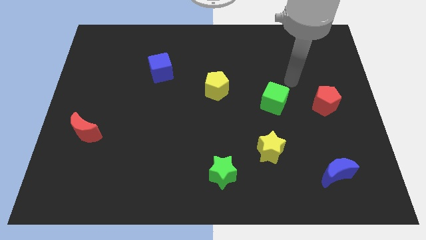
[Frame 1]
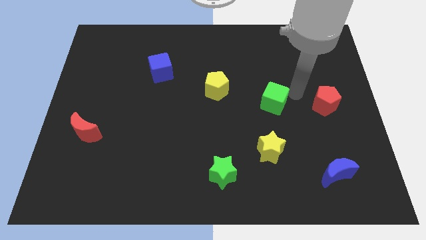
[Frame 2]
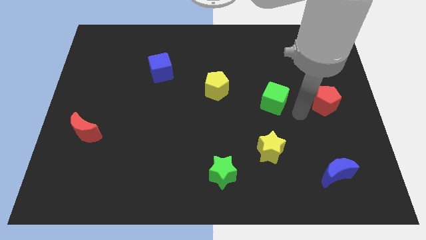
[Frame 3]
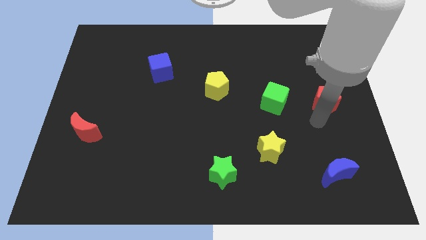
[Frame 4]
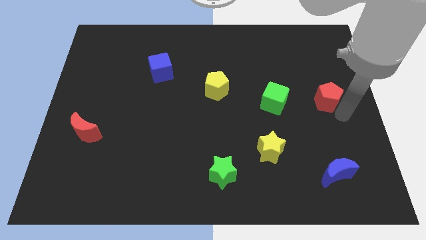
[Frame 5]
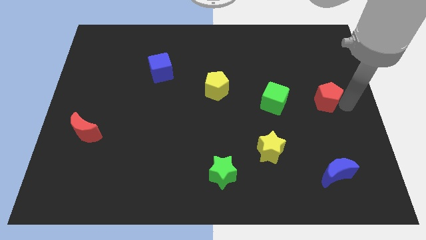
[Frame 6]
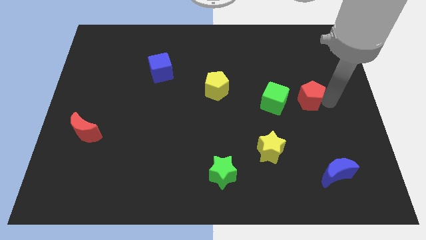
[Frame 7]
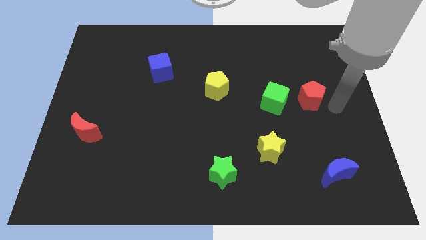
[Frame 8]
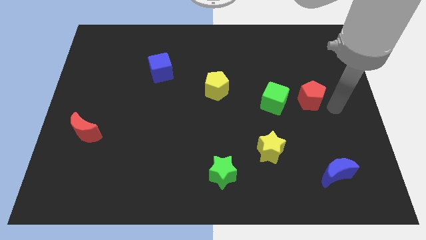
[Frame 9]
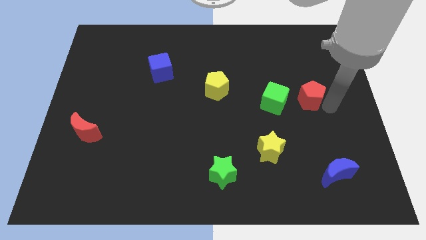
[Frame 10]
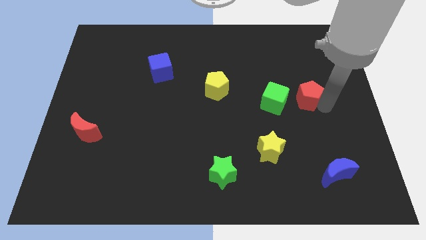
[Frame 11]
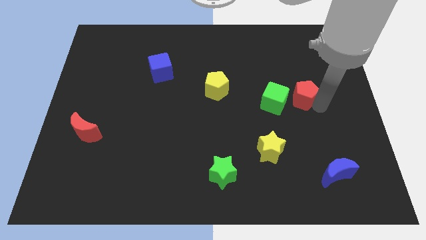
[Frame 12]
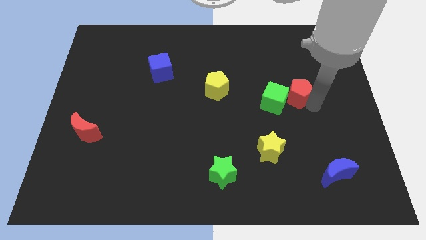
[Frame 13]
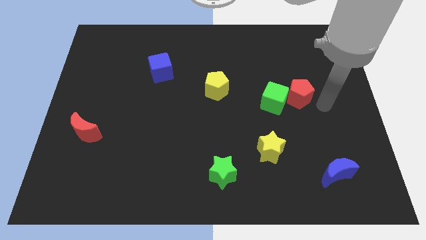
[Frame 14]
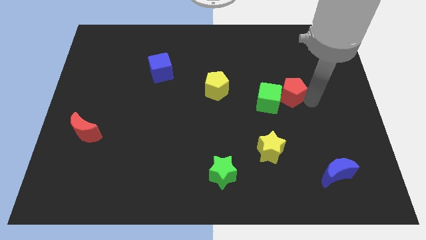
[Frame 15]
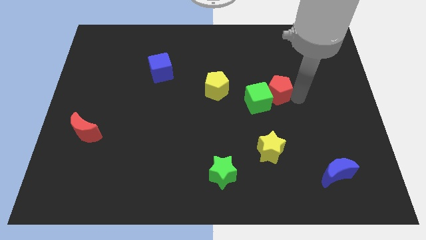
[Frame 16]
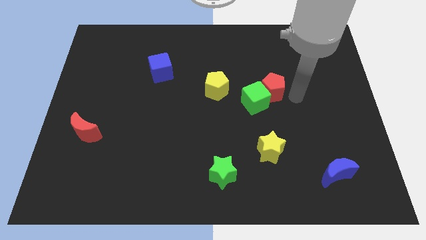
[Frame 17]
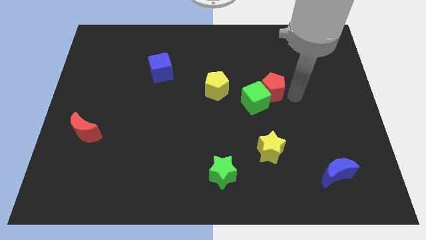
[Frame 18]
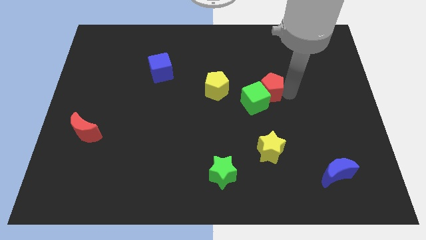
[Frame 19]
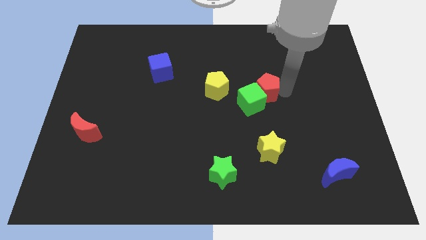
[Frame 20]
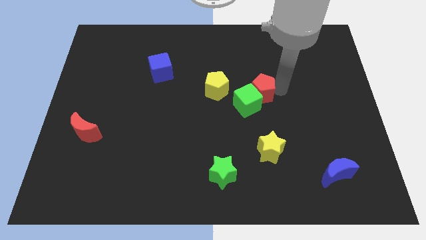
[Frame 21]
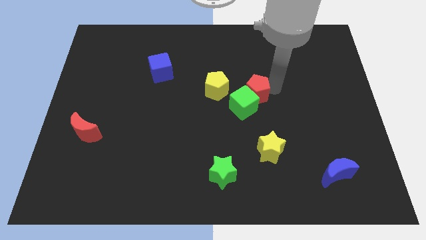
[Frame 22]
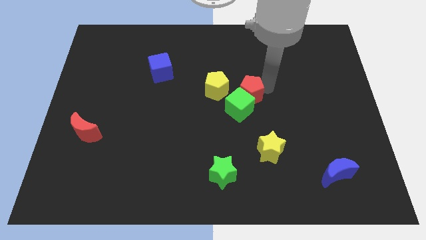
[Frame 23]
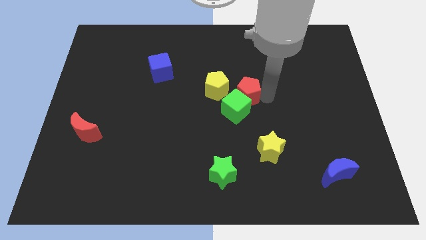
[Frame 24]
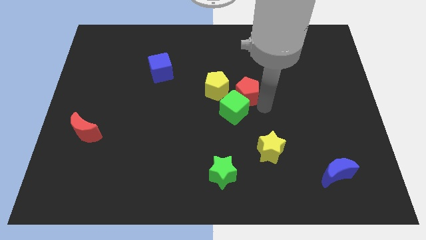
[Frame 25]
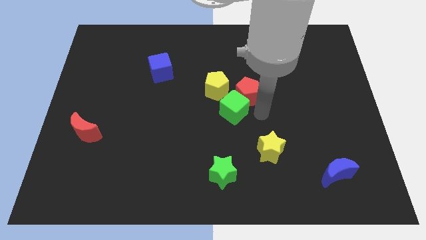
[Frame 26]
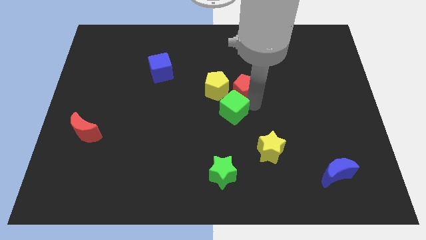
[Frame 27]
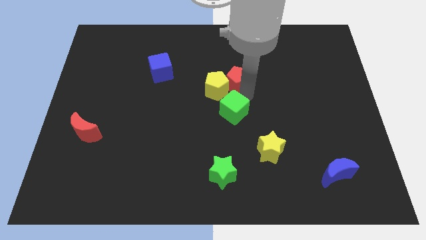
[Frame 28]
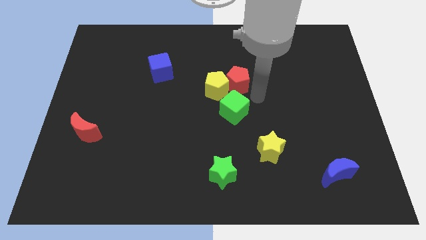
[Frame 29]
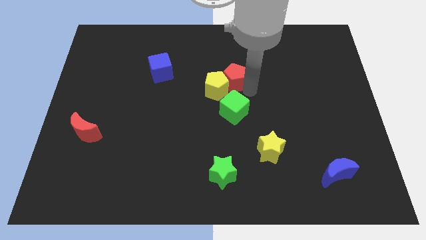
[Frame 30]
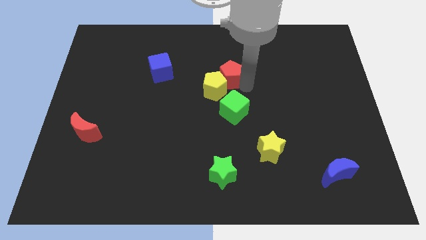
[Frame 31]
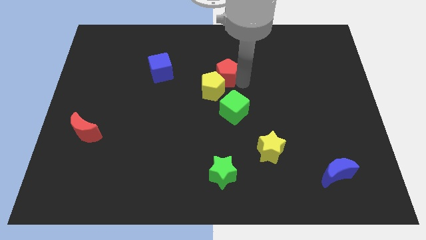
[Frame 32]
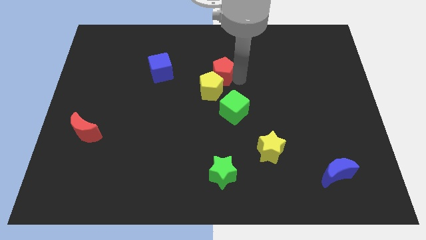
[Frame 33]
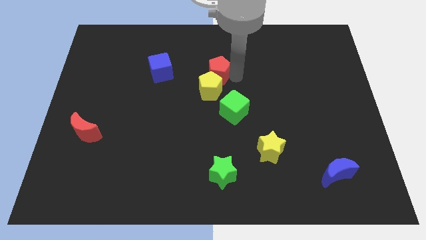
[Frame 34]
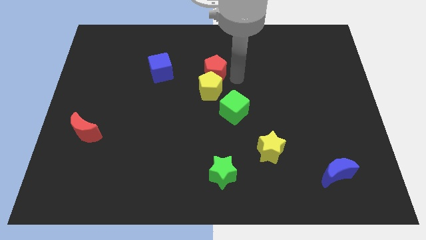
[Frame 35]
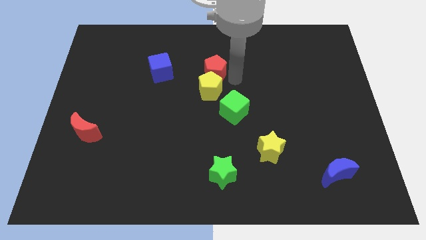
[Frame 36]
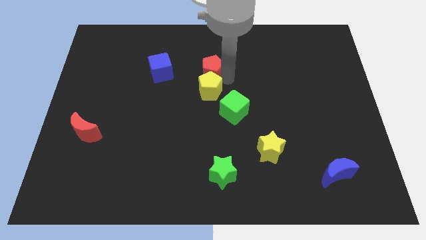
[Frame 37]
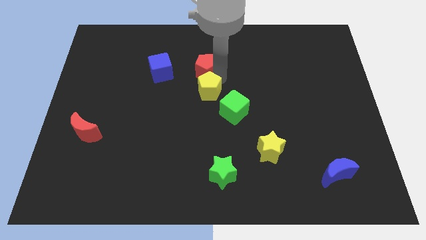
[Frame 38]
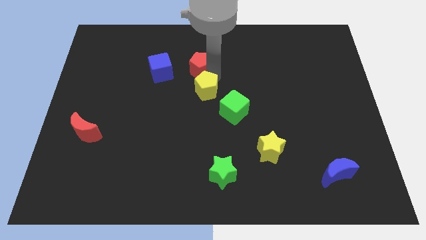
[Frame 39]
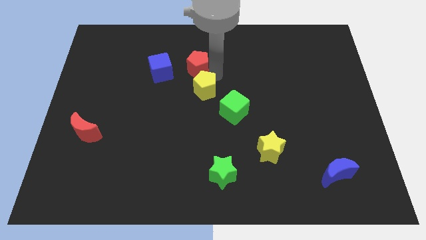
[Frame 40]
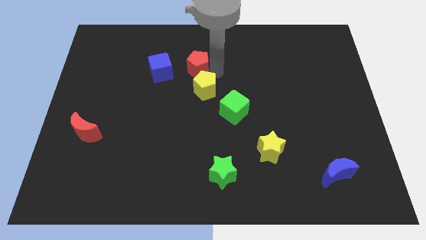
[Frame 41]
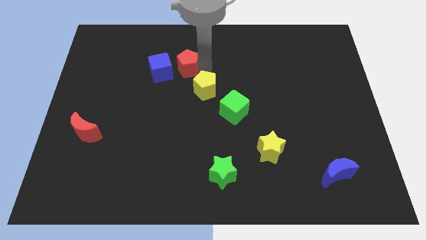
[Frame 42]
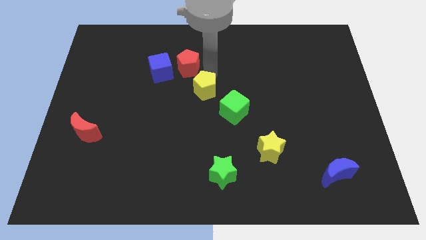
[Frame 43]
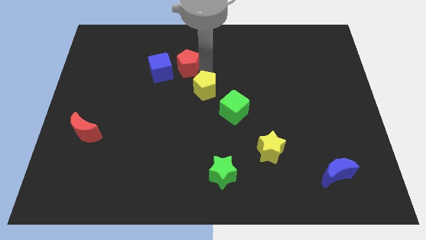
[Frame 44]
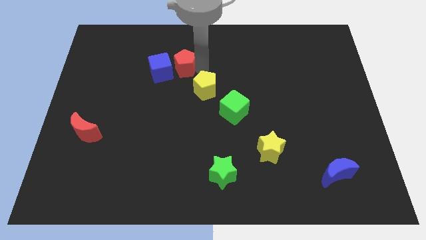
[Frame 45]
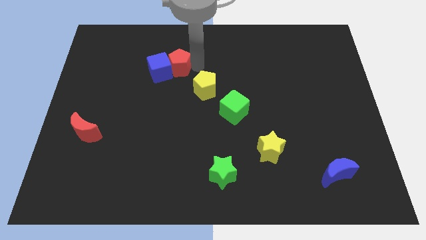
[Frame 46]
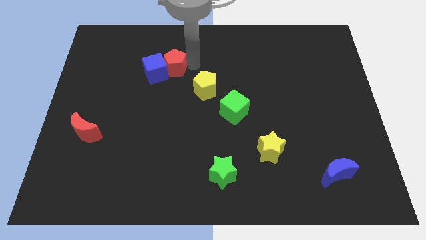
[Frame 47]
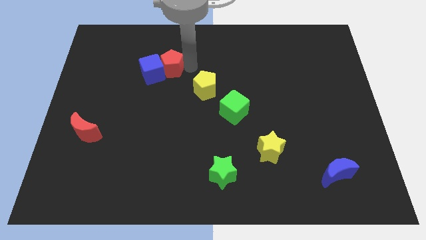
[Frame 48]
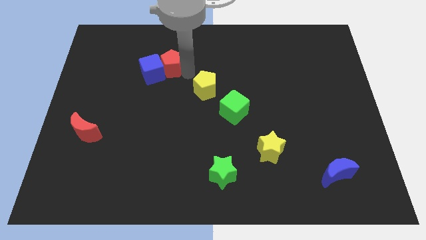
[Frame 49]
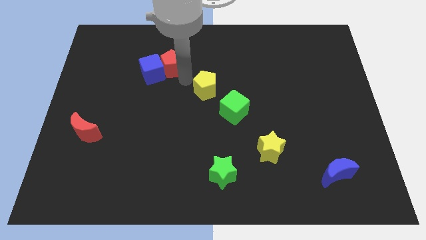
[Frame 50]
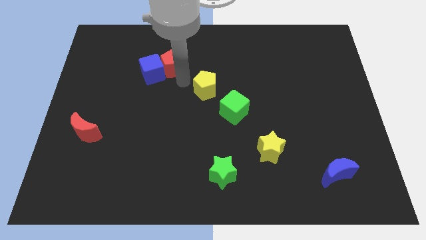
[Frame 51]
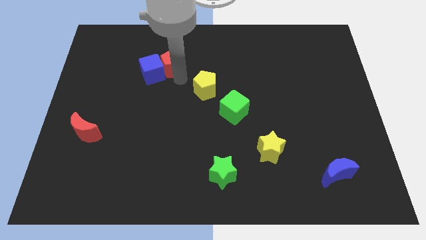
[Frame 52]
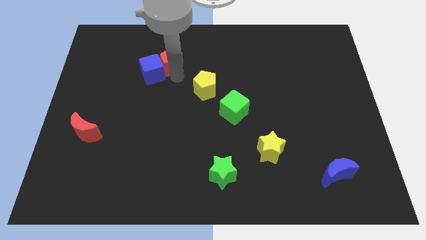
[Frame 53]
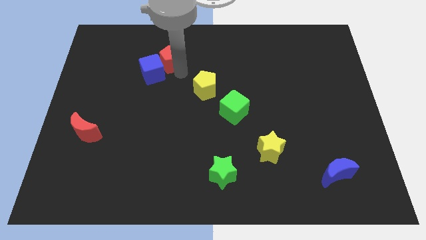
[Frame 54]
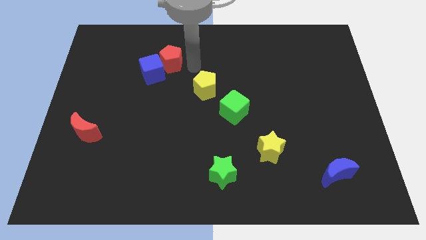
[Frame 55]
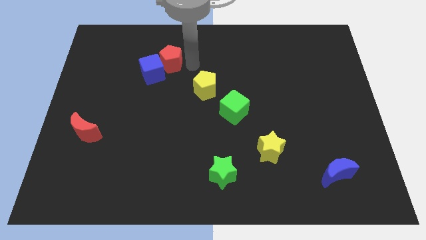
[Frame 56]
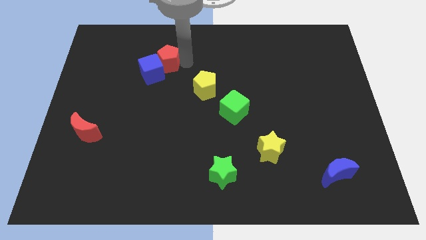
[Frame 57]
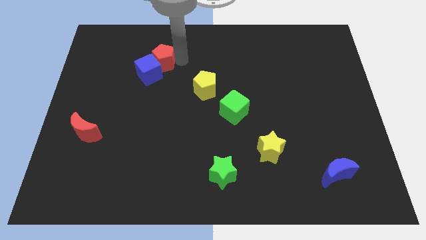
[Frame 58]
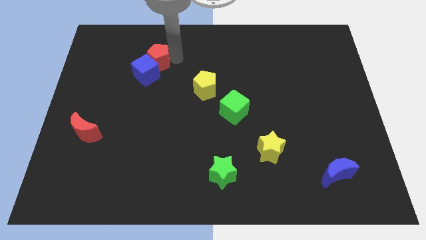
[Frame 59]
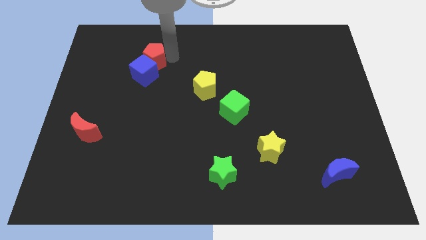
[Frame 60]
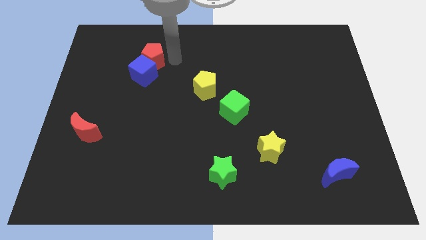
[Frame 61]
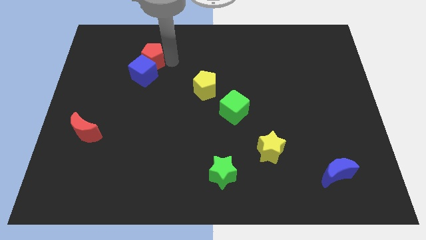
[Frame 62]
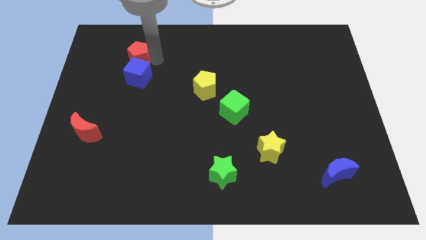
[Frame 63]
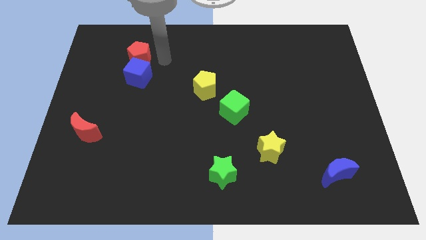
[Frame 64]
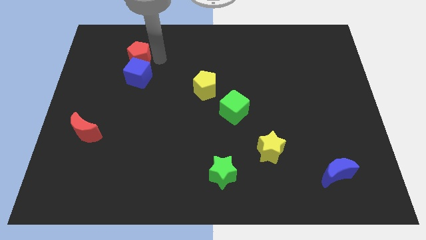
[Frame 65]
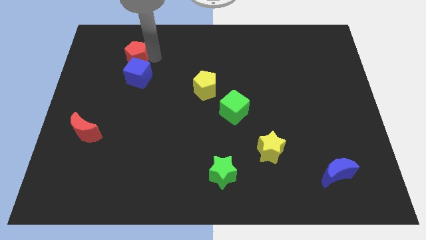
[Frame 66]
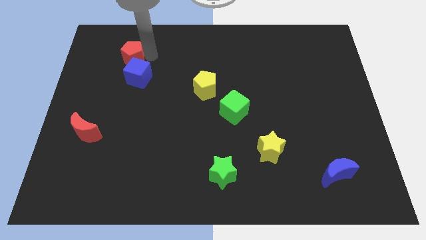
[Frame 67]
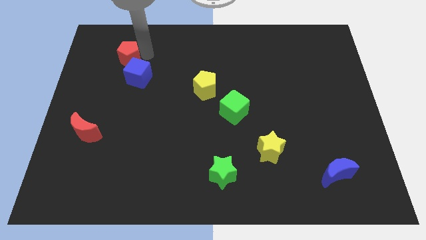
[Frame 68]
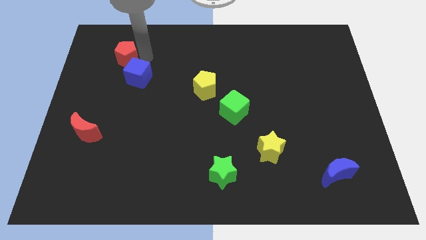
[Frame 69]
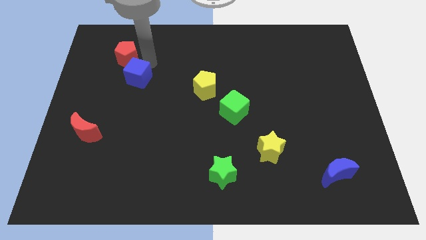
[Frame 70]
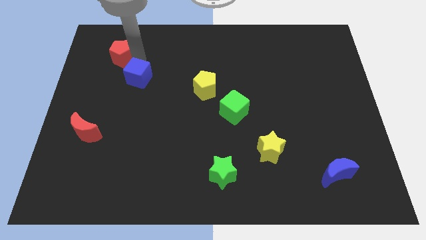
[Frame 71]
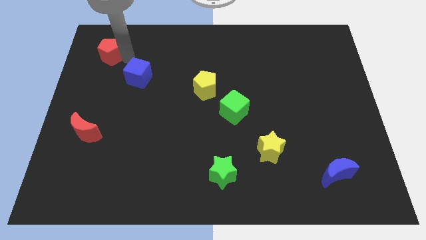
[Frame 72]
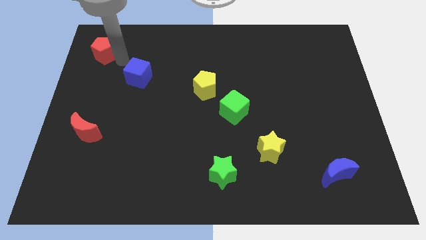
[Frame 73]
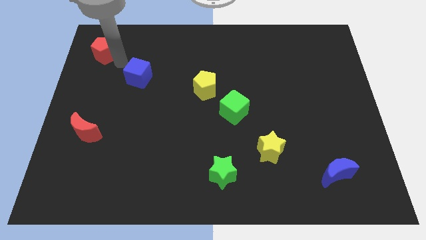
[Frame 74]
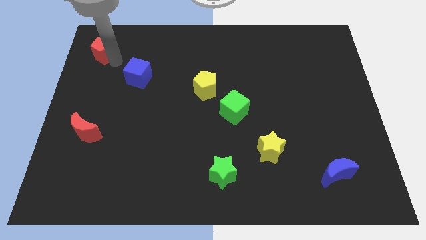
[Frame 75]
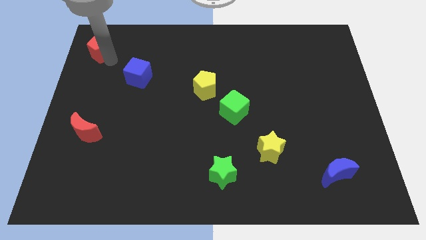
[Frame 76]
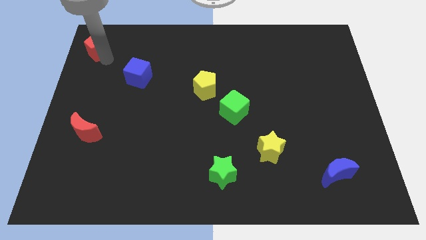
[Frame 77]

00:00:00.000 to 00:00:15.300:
put the red pentagon to the top left corner
